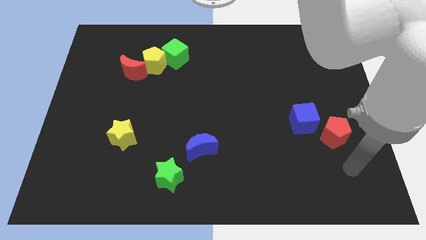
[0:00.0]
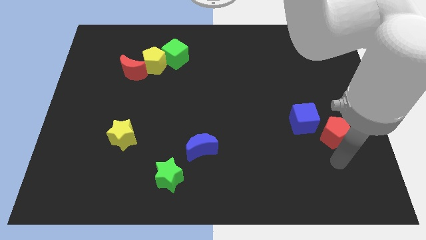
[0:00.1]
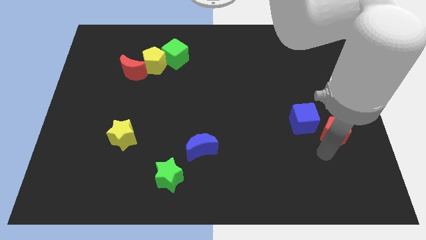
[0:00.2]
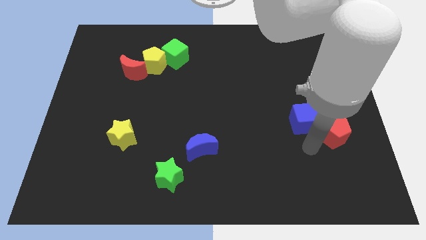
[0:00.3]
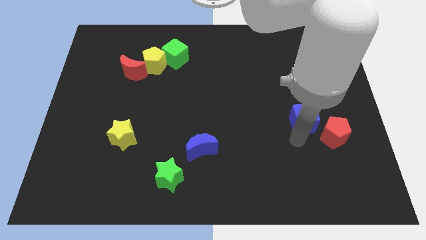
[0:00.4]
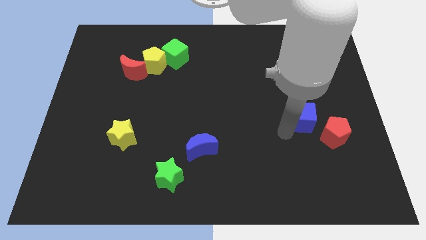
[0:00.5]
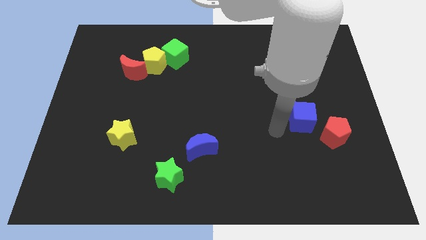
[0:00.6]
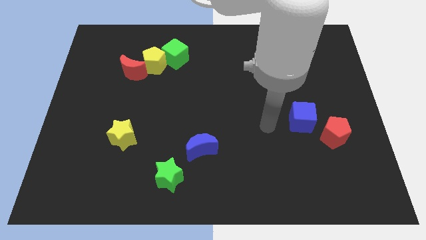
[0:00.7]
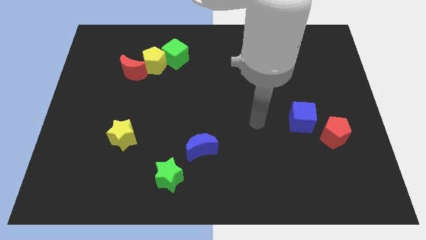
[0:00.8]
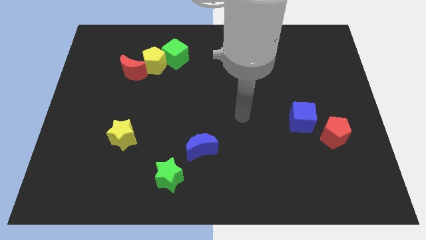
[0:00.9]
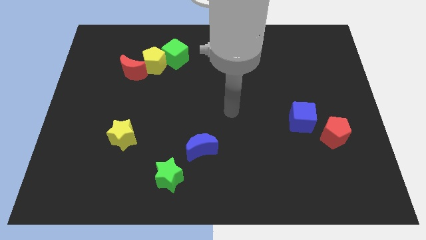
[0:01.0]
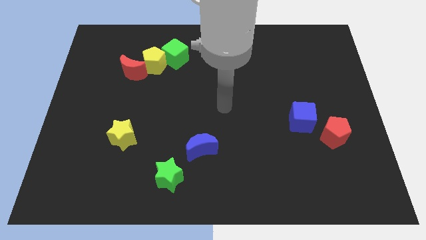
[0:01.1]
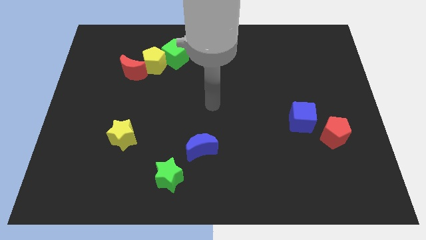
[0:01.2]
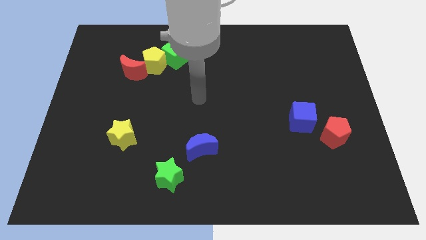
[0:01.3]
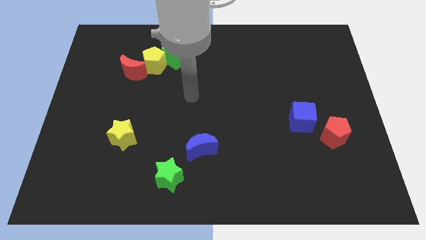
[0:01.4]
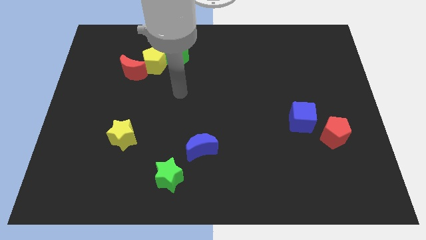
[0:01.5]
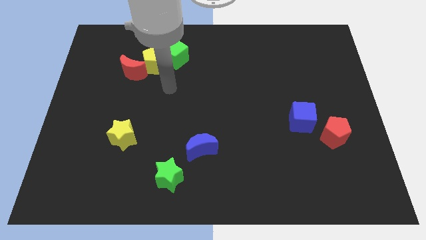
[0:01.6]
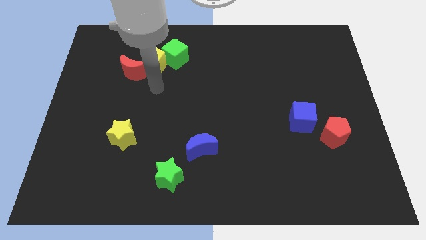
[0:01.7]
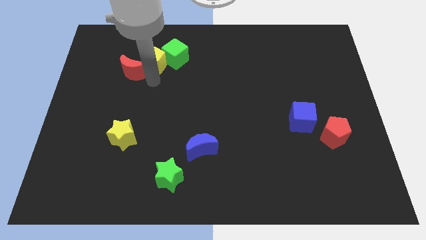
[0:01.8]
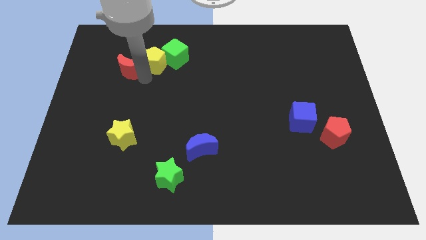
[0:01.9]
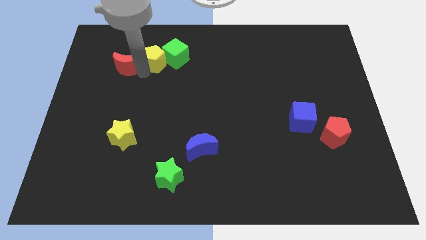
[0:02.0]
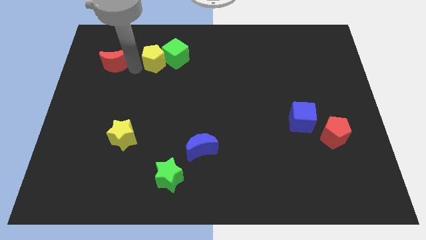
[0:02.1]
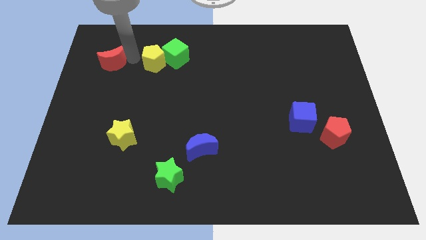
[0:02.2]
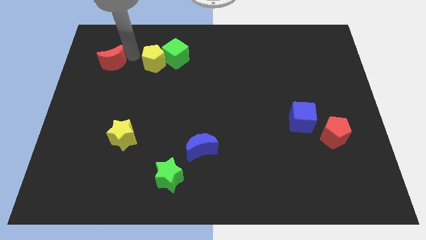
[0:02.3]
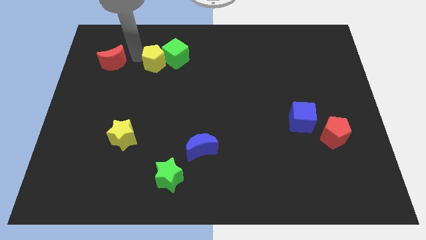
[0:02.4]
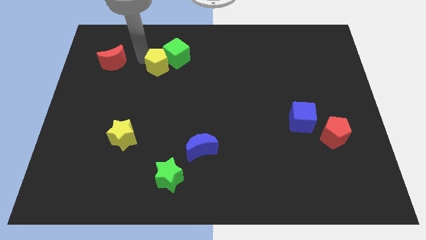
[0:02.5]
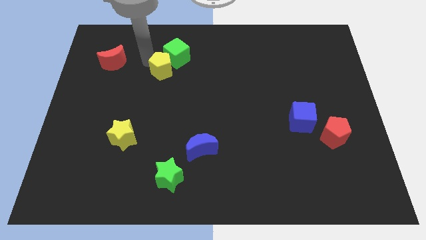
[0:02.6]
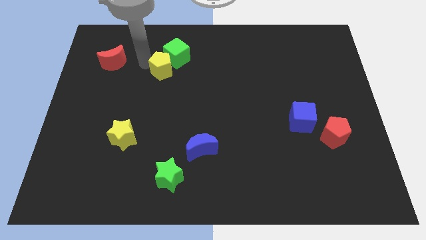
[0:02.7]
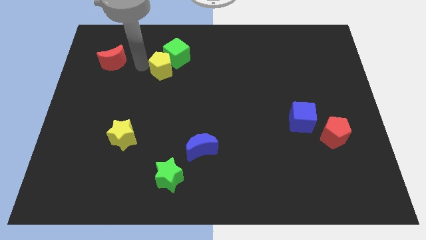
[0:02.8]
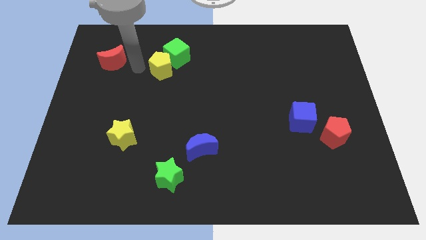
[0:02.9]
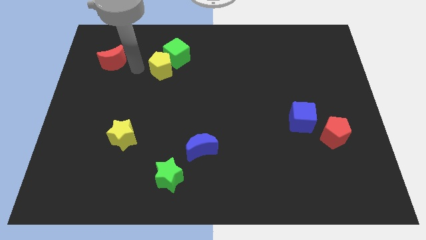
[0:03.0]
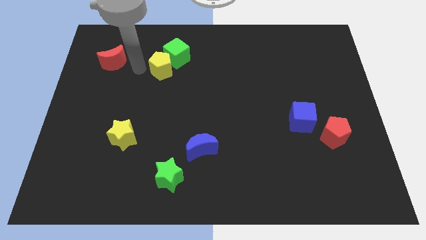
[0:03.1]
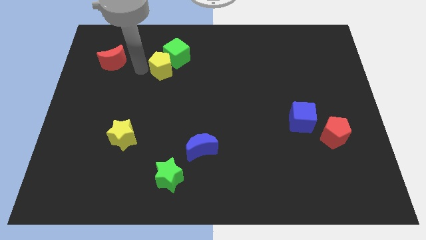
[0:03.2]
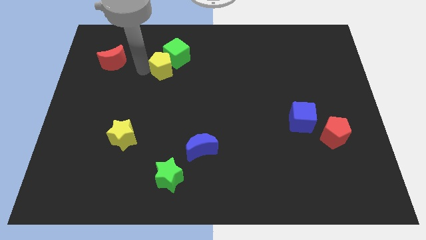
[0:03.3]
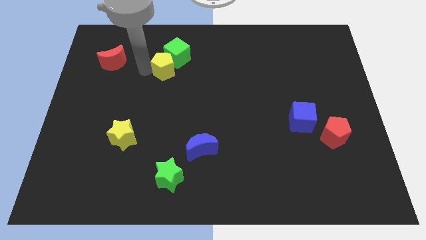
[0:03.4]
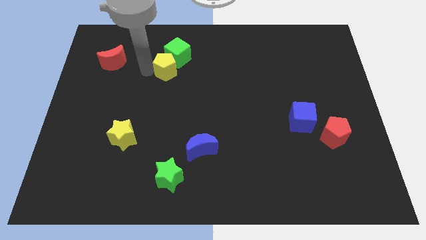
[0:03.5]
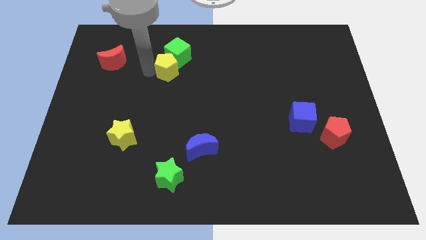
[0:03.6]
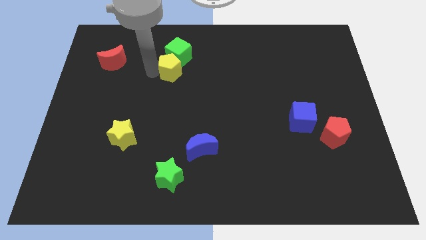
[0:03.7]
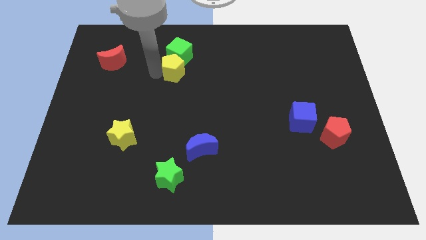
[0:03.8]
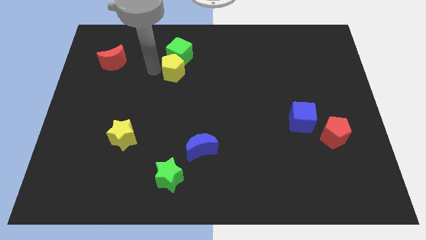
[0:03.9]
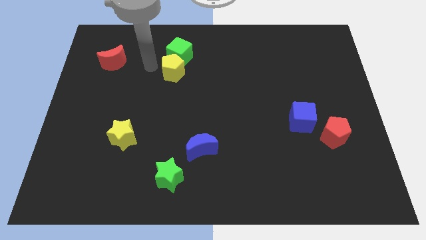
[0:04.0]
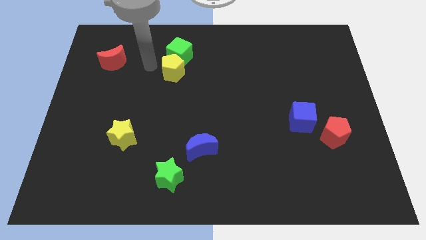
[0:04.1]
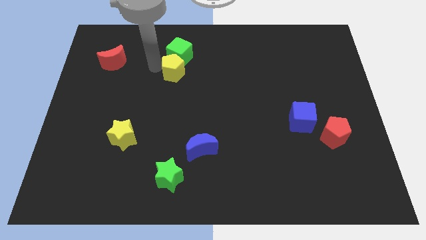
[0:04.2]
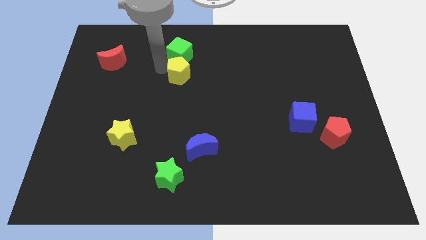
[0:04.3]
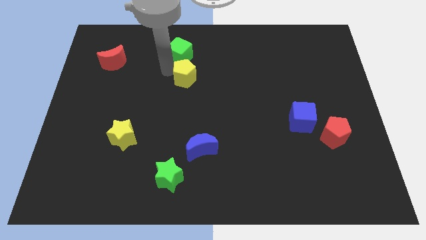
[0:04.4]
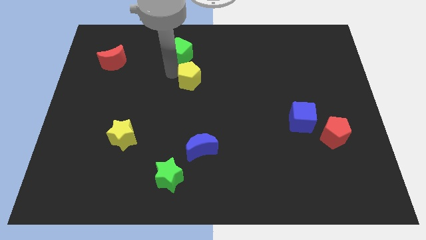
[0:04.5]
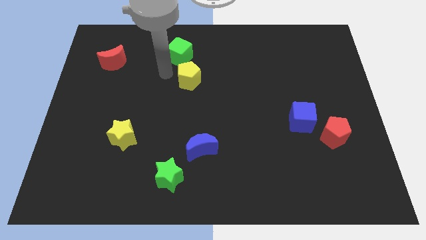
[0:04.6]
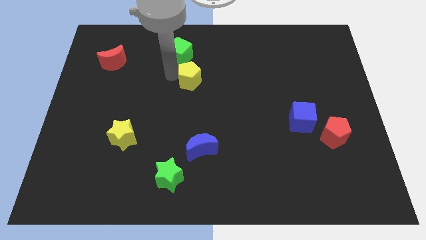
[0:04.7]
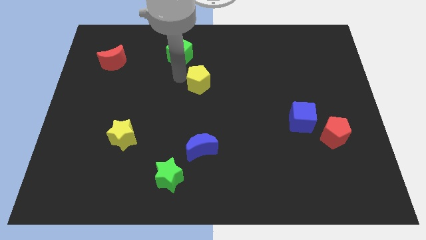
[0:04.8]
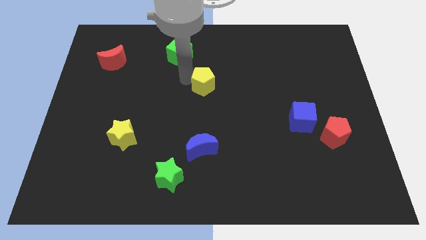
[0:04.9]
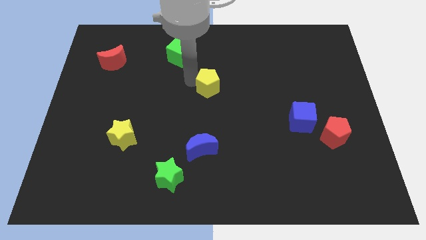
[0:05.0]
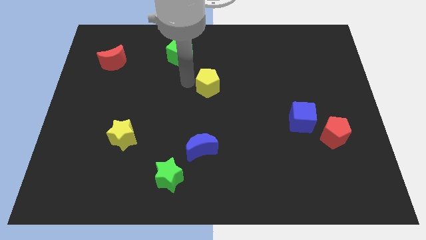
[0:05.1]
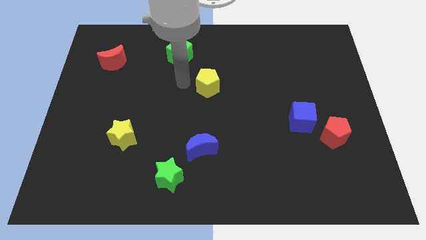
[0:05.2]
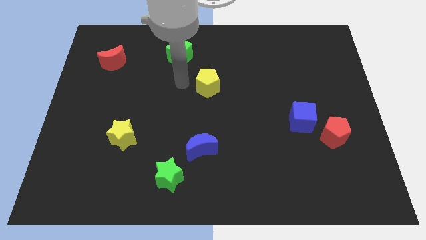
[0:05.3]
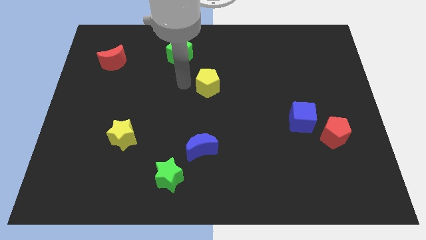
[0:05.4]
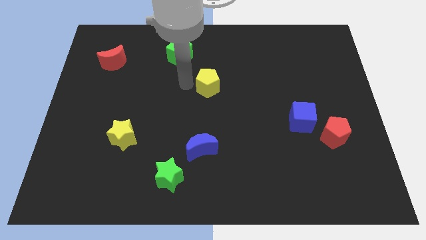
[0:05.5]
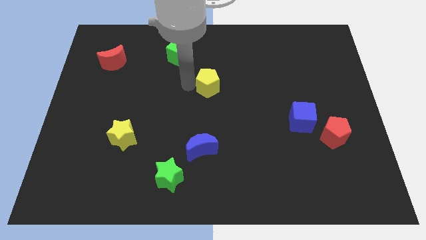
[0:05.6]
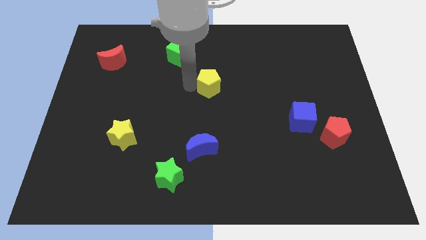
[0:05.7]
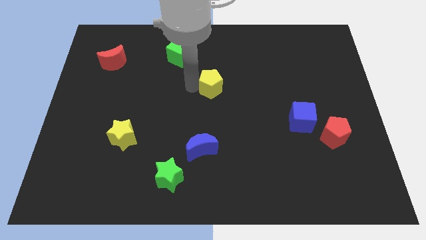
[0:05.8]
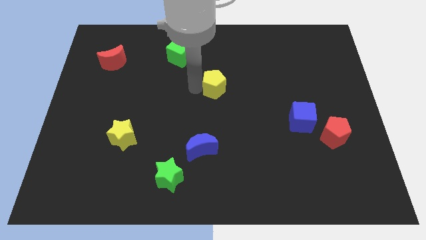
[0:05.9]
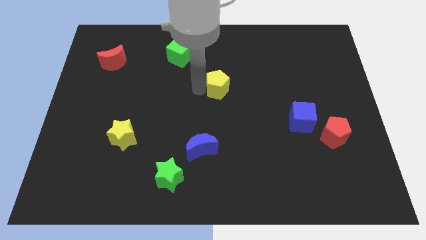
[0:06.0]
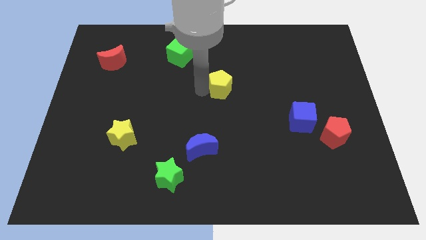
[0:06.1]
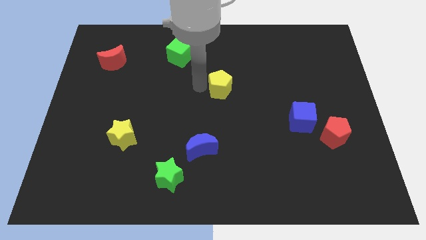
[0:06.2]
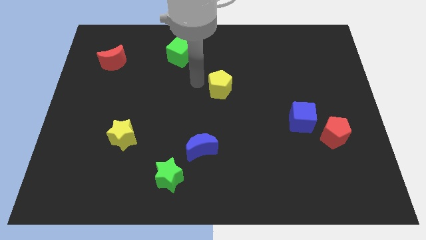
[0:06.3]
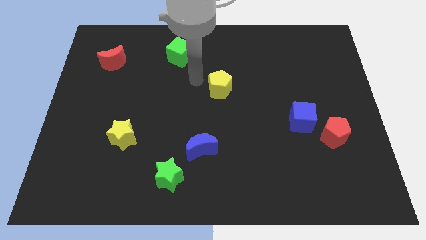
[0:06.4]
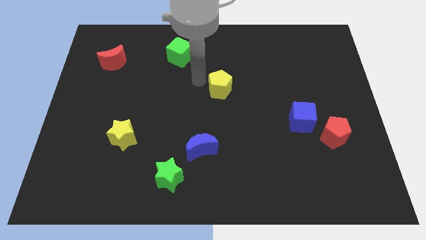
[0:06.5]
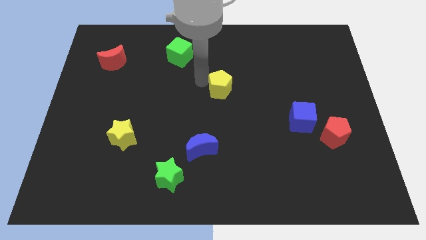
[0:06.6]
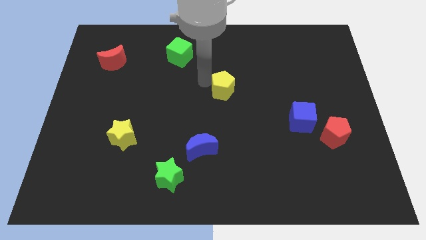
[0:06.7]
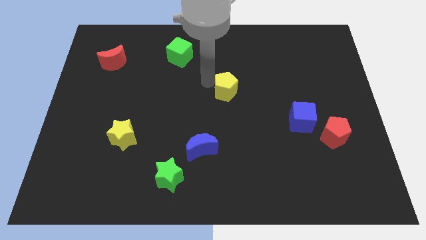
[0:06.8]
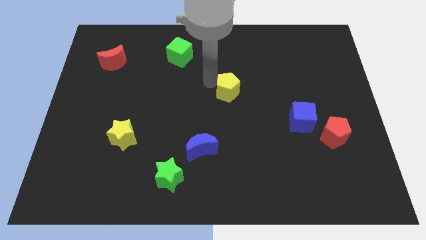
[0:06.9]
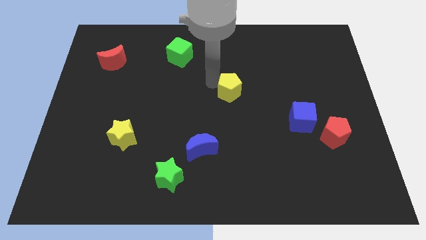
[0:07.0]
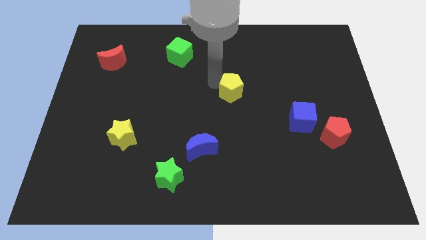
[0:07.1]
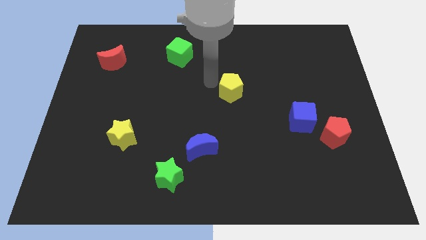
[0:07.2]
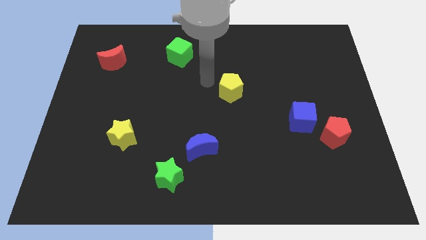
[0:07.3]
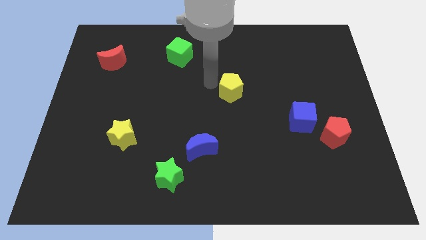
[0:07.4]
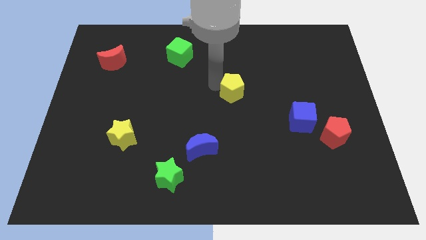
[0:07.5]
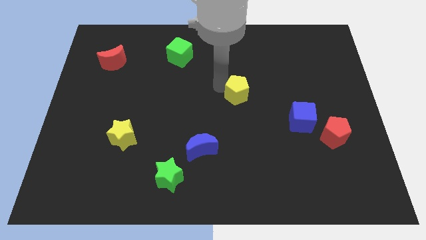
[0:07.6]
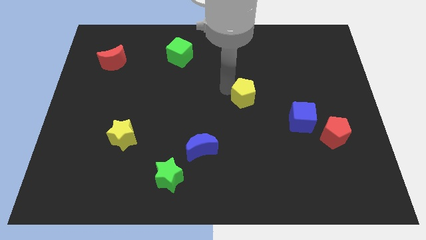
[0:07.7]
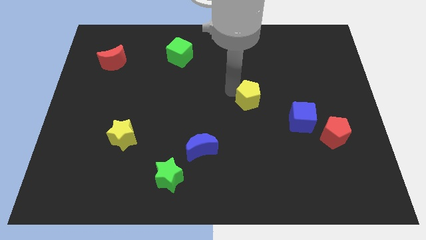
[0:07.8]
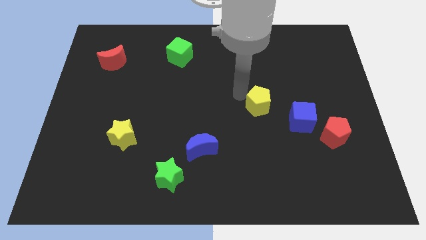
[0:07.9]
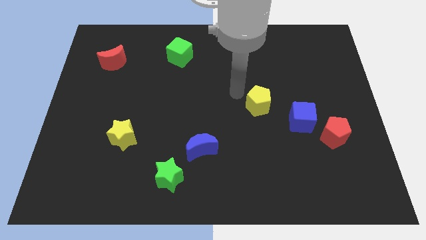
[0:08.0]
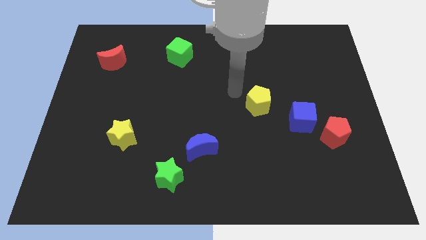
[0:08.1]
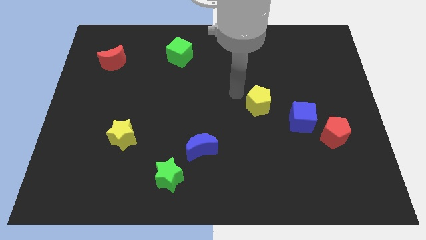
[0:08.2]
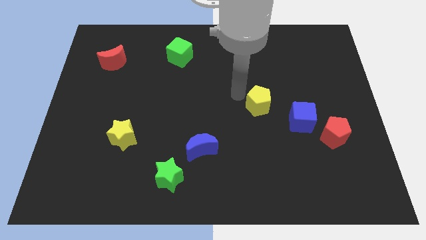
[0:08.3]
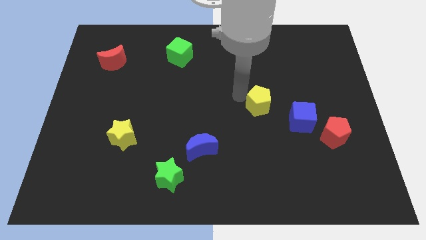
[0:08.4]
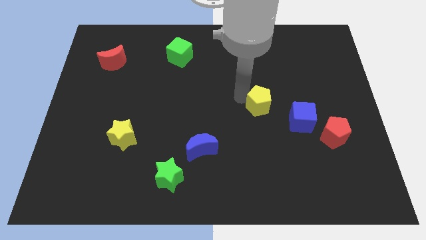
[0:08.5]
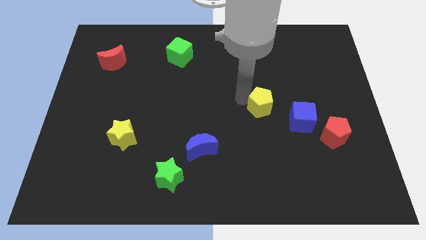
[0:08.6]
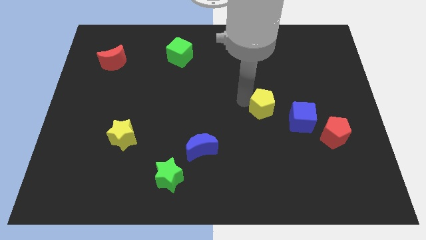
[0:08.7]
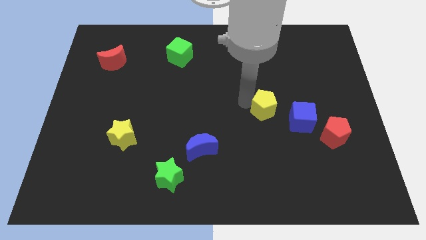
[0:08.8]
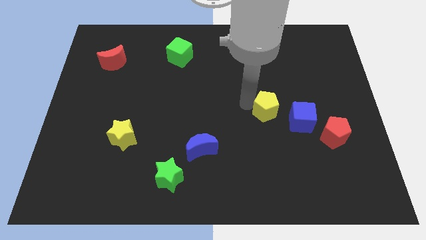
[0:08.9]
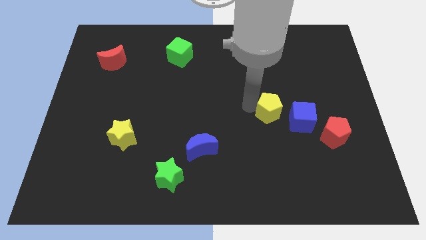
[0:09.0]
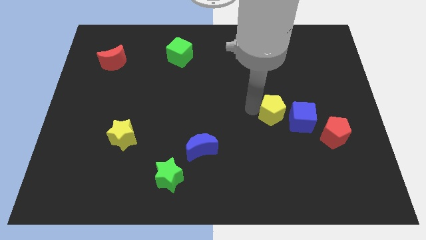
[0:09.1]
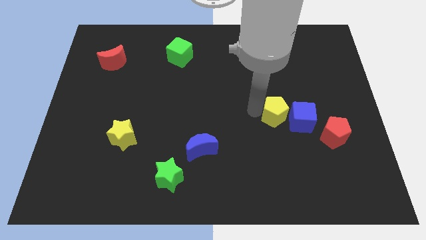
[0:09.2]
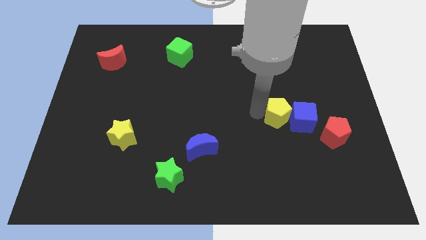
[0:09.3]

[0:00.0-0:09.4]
slide the yellow pentagon towards the blue cube
